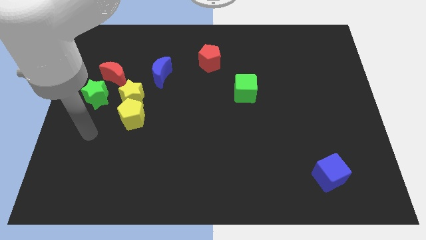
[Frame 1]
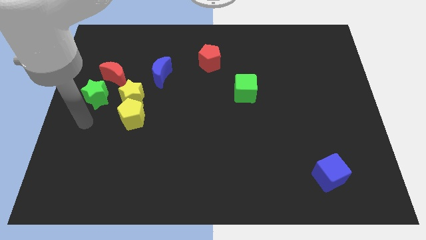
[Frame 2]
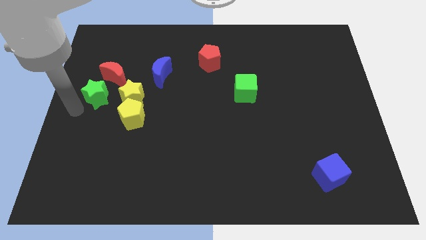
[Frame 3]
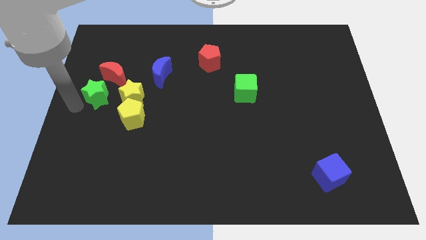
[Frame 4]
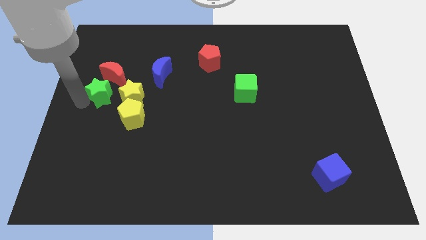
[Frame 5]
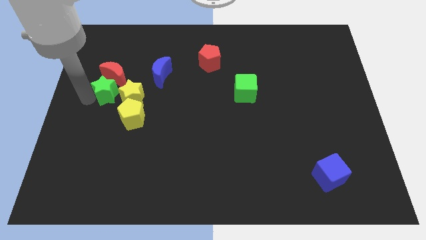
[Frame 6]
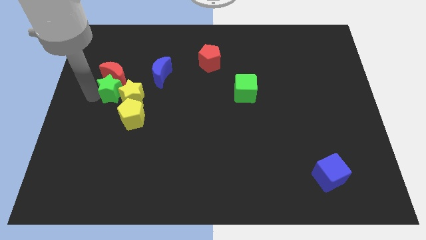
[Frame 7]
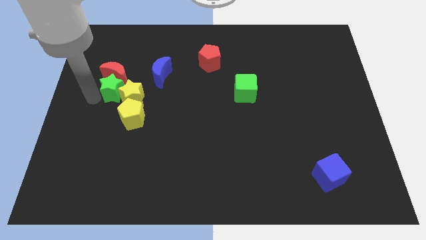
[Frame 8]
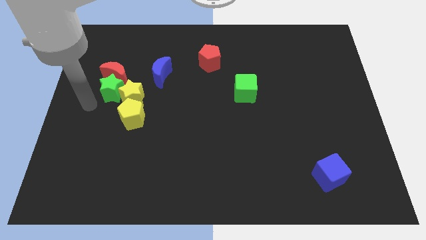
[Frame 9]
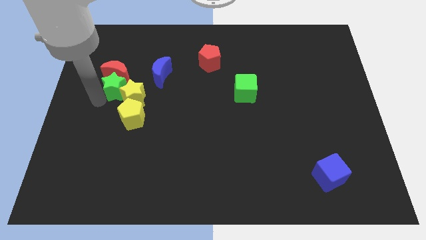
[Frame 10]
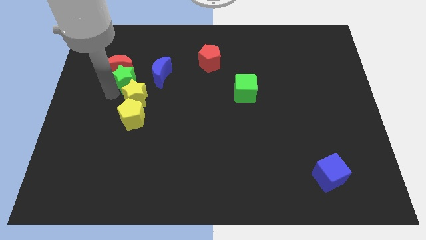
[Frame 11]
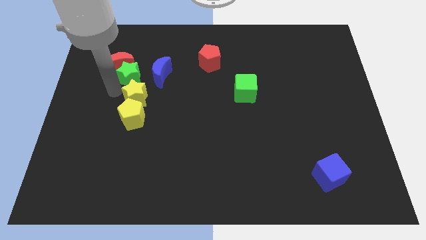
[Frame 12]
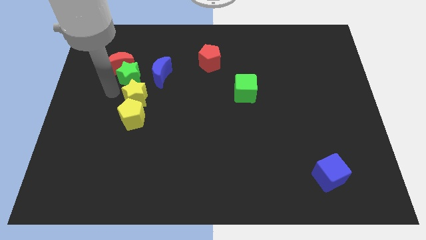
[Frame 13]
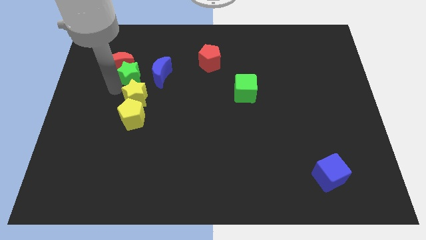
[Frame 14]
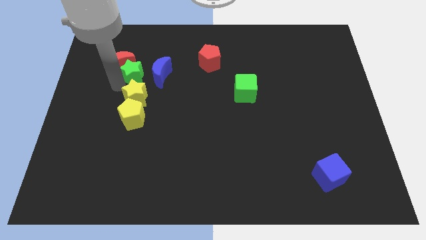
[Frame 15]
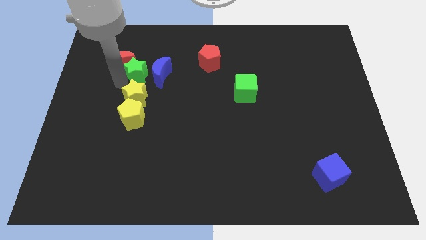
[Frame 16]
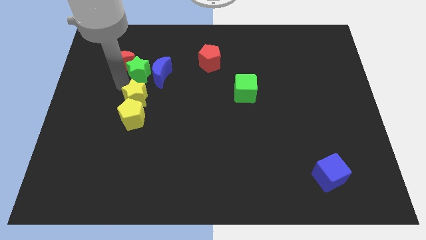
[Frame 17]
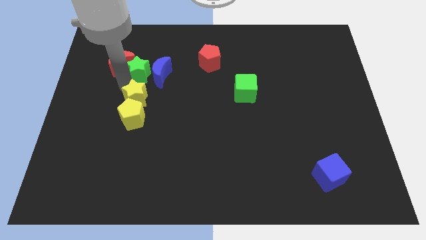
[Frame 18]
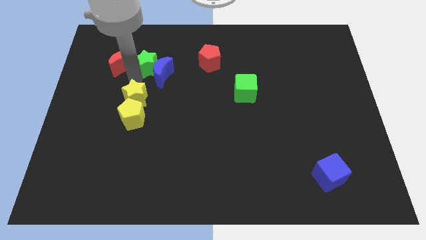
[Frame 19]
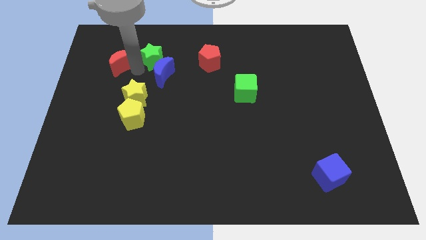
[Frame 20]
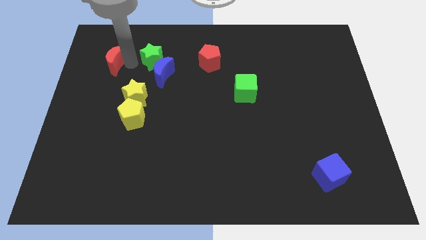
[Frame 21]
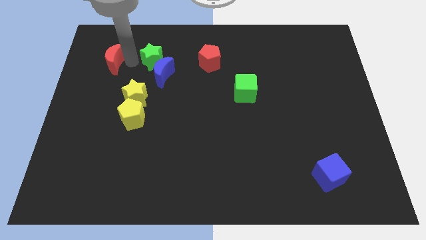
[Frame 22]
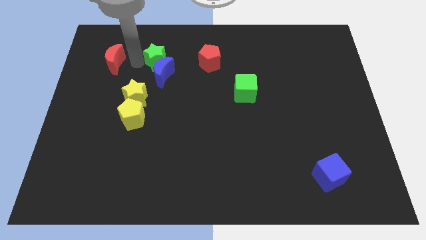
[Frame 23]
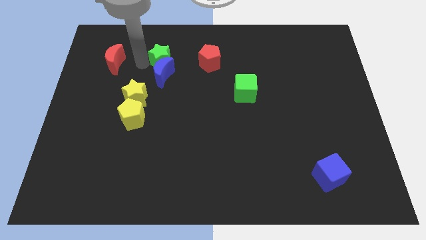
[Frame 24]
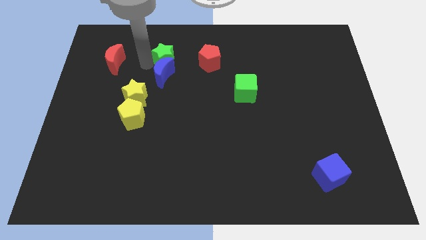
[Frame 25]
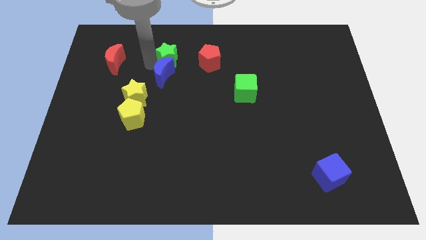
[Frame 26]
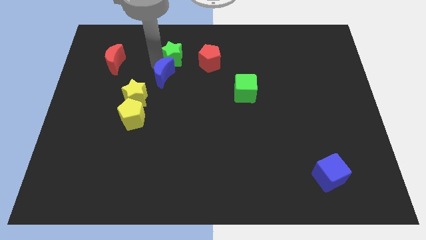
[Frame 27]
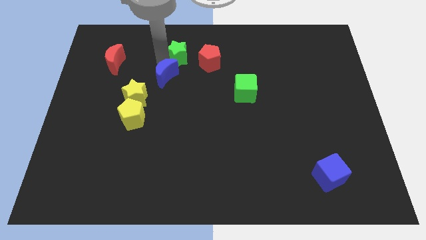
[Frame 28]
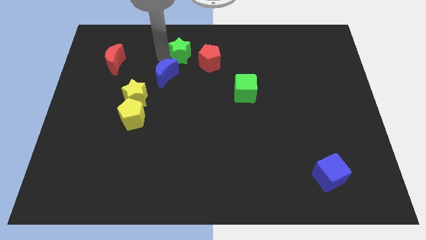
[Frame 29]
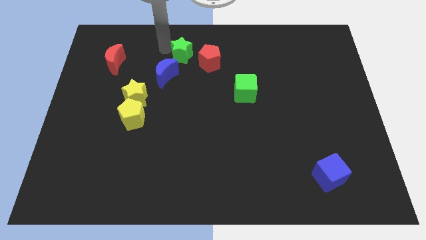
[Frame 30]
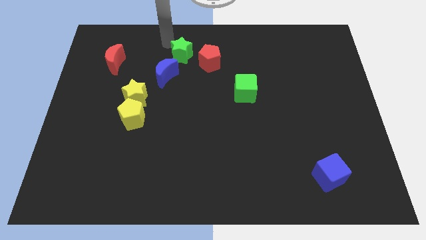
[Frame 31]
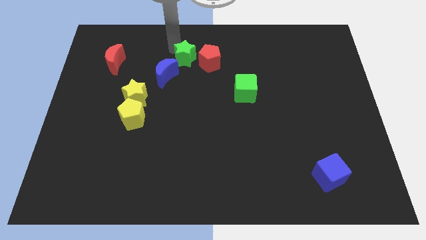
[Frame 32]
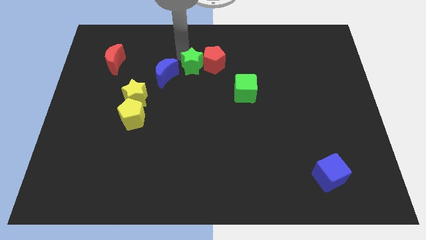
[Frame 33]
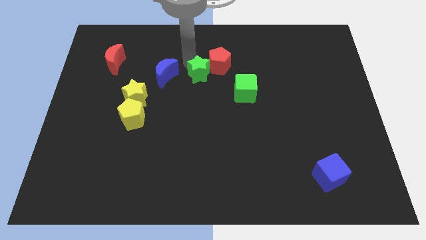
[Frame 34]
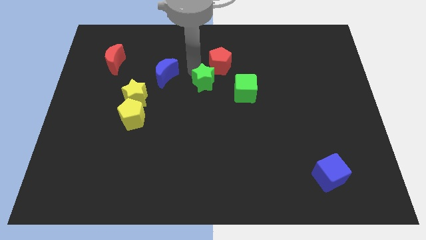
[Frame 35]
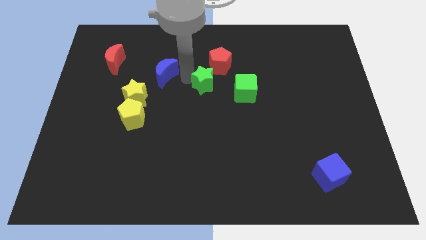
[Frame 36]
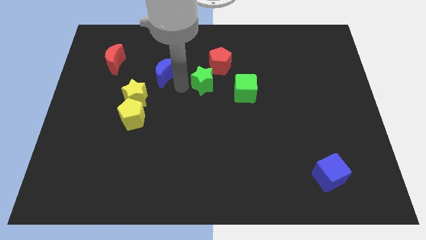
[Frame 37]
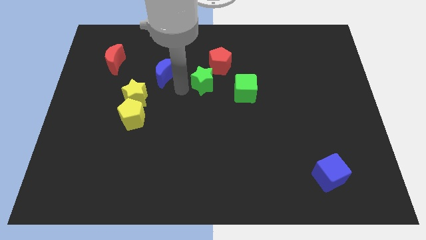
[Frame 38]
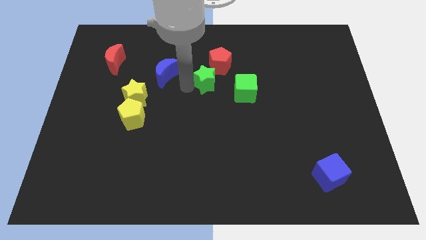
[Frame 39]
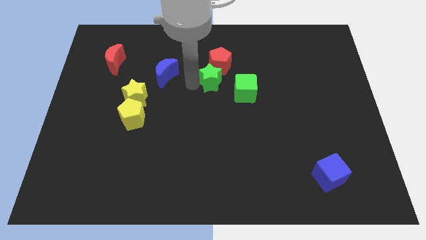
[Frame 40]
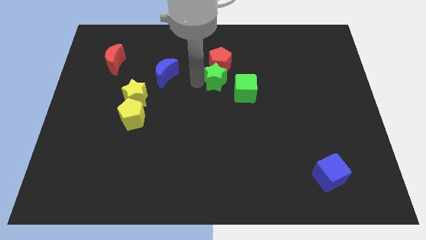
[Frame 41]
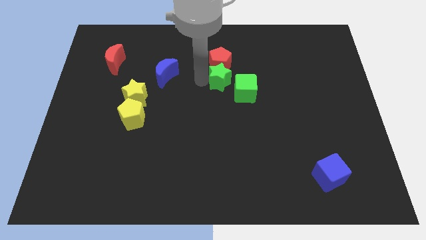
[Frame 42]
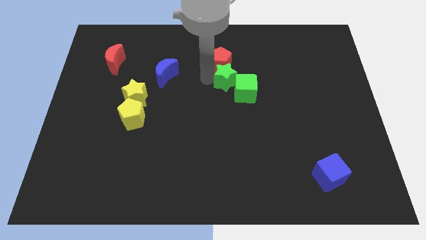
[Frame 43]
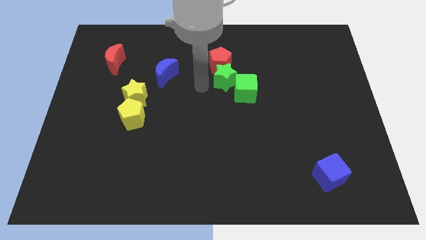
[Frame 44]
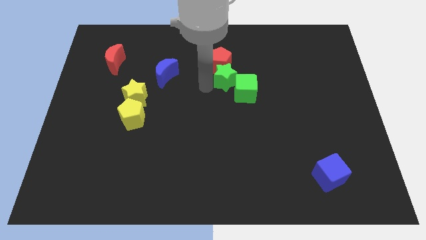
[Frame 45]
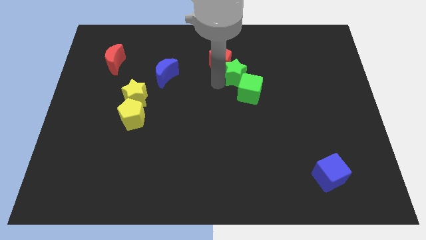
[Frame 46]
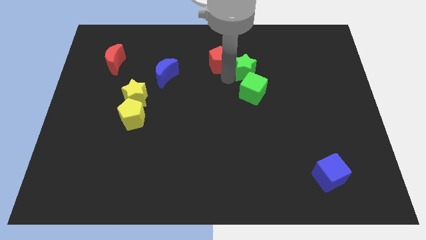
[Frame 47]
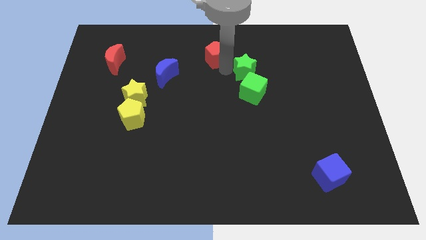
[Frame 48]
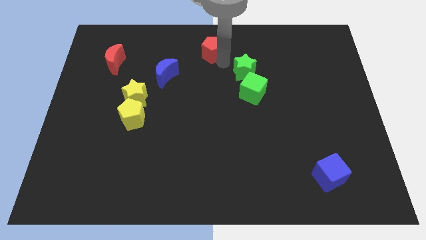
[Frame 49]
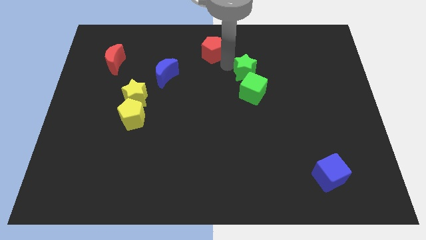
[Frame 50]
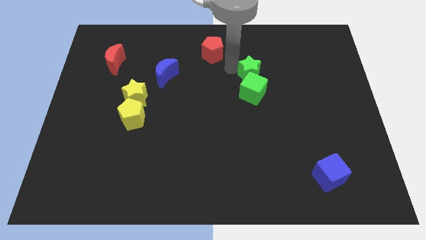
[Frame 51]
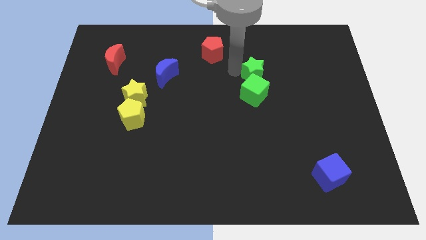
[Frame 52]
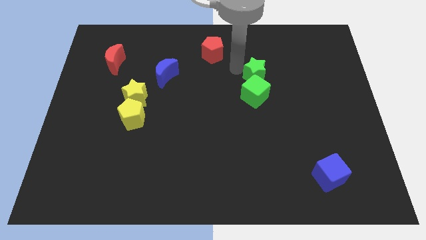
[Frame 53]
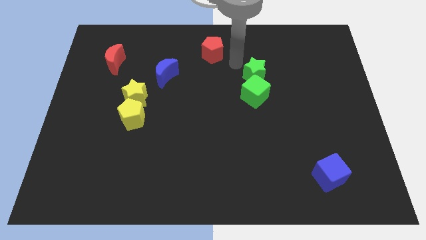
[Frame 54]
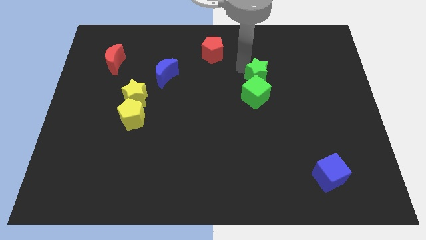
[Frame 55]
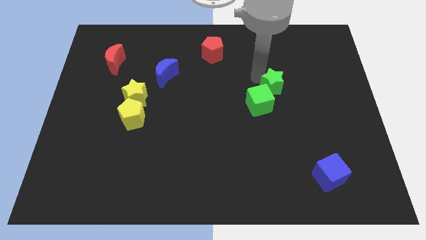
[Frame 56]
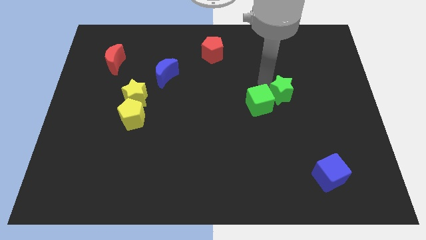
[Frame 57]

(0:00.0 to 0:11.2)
move the green star to the right side of the green cube
